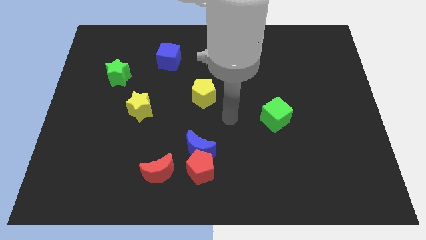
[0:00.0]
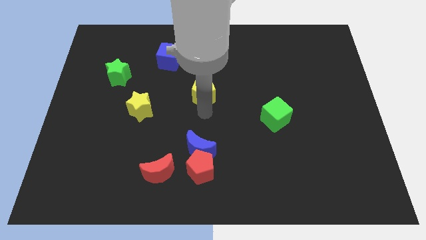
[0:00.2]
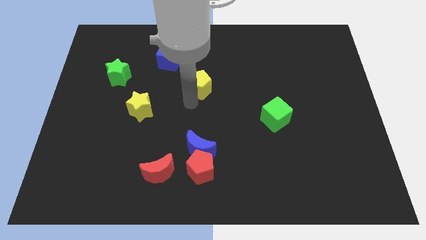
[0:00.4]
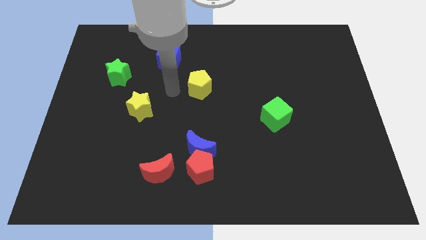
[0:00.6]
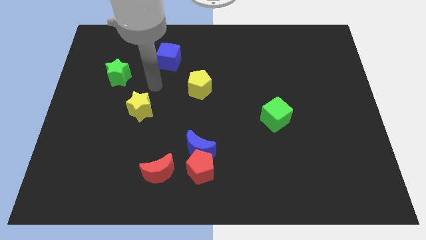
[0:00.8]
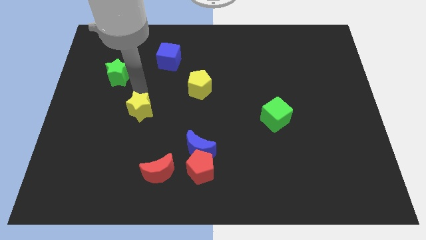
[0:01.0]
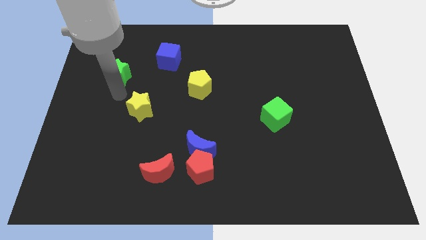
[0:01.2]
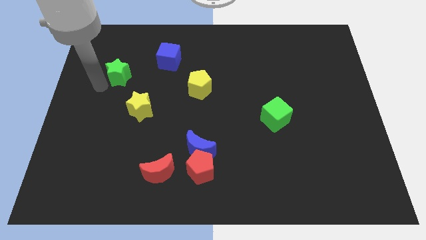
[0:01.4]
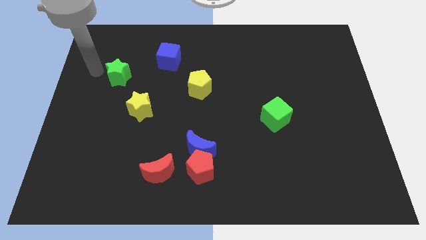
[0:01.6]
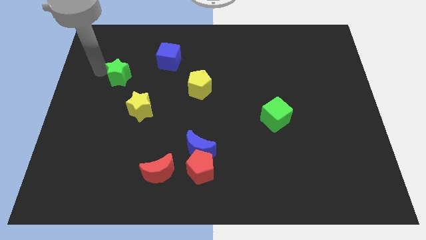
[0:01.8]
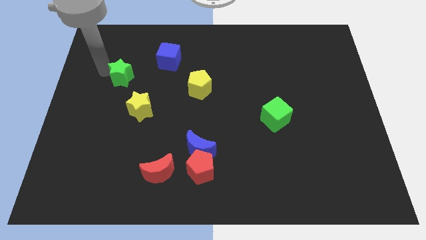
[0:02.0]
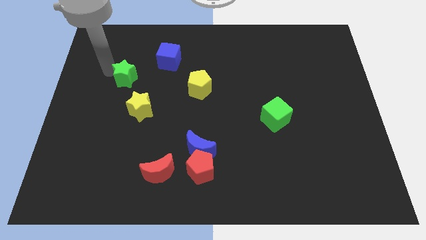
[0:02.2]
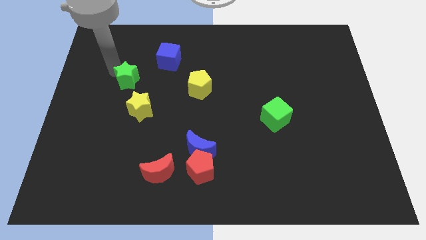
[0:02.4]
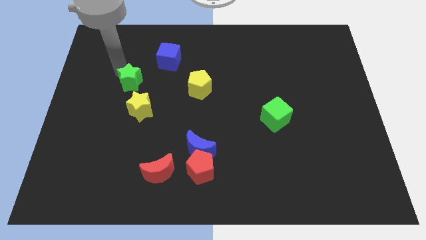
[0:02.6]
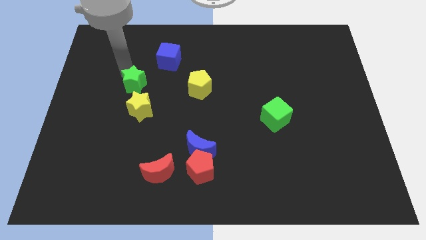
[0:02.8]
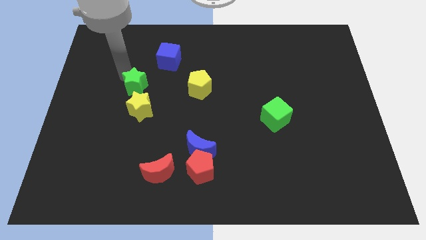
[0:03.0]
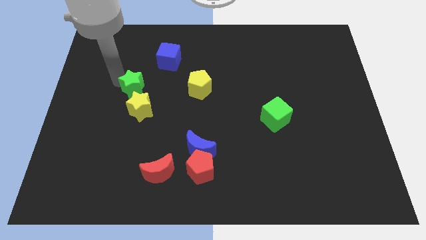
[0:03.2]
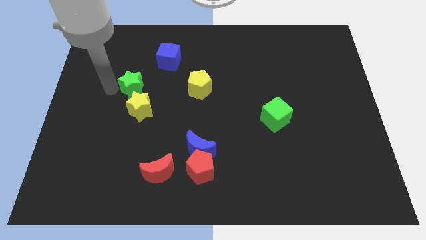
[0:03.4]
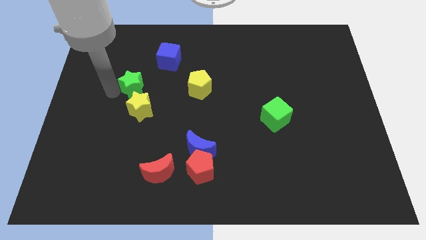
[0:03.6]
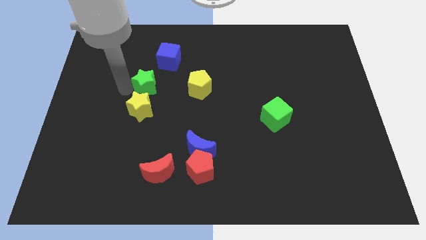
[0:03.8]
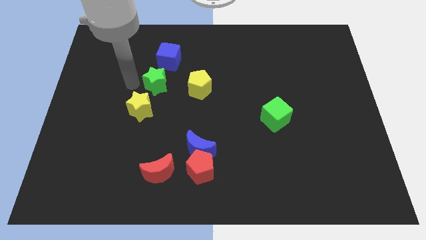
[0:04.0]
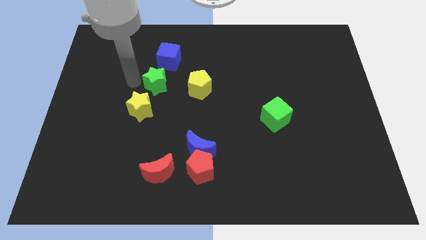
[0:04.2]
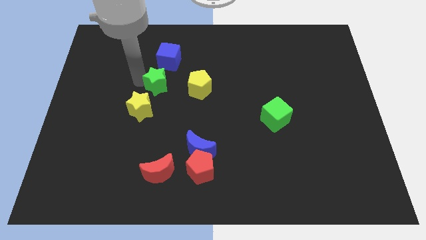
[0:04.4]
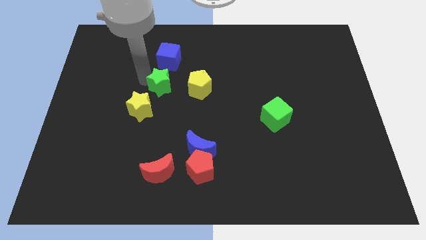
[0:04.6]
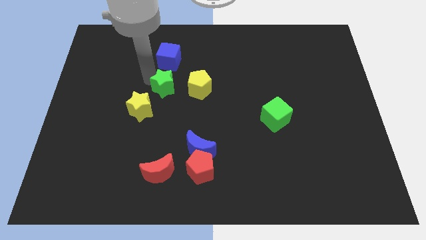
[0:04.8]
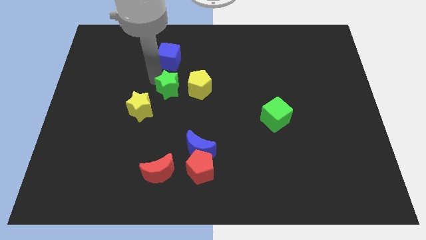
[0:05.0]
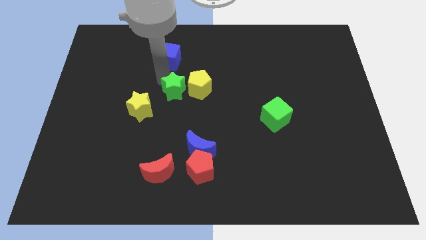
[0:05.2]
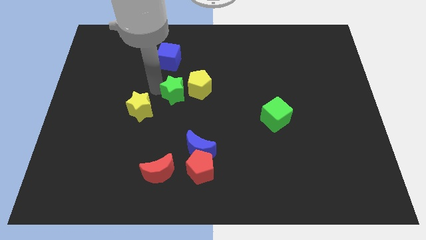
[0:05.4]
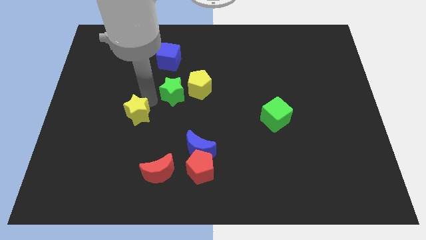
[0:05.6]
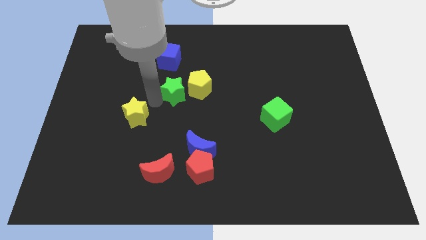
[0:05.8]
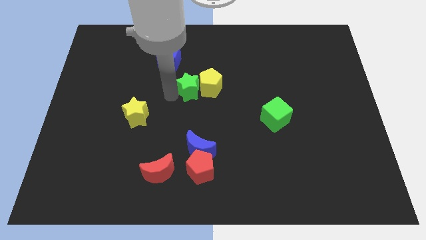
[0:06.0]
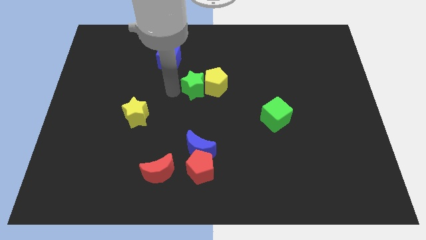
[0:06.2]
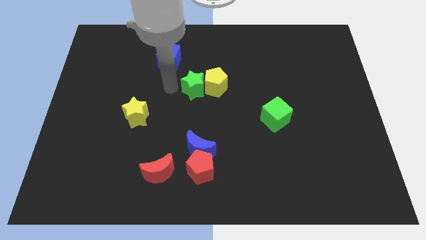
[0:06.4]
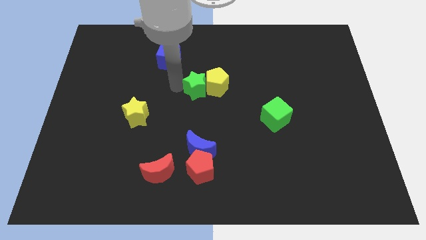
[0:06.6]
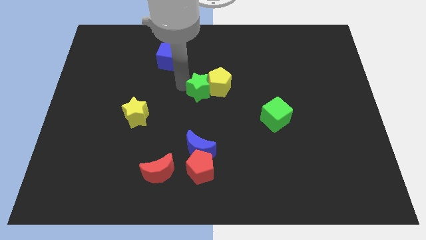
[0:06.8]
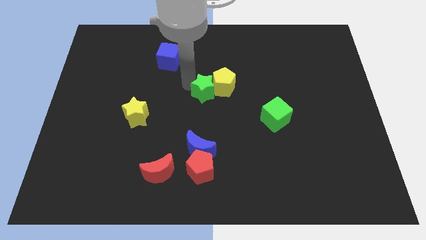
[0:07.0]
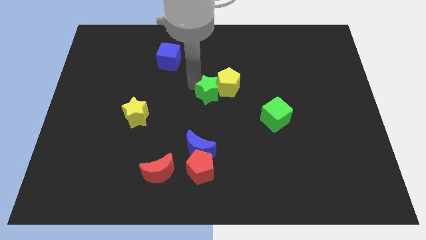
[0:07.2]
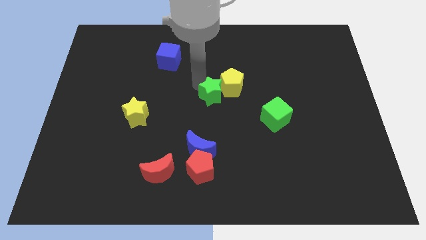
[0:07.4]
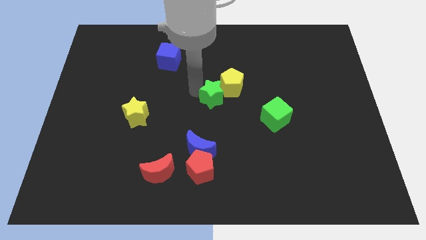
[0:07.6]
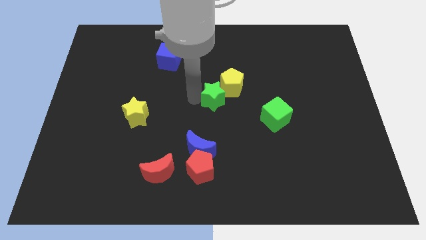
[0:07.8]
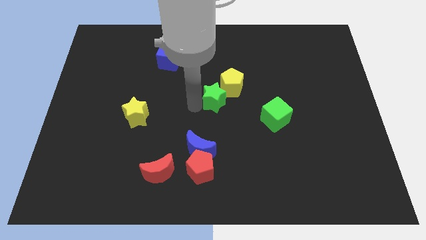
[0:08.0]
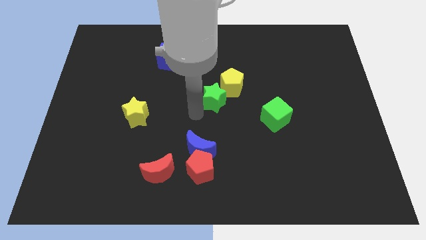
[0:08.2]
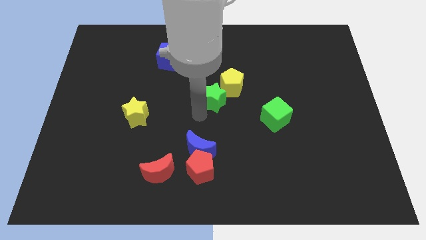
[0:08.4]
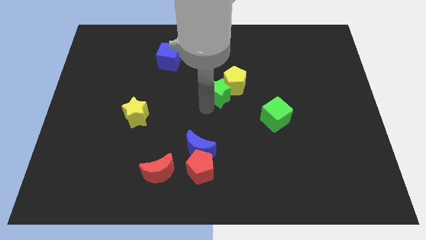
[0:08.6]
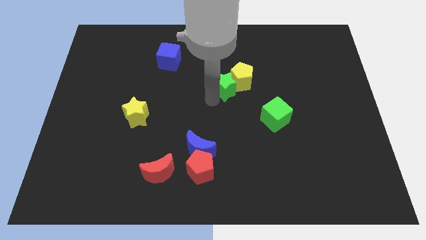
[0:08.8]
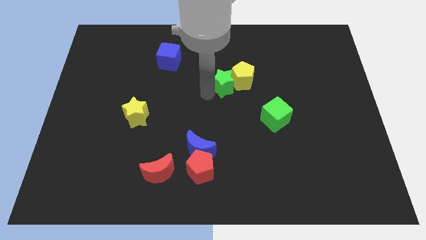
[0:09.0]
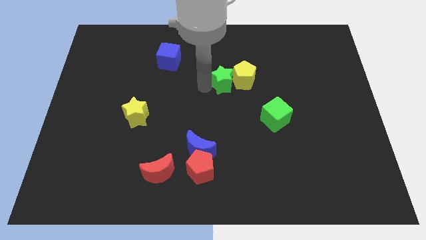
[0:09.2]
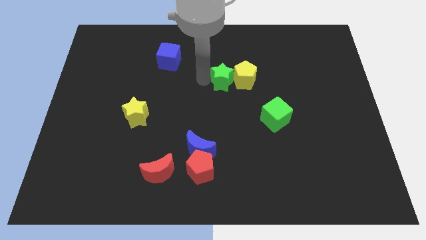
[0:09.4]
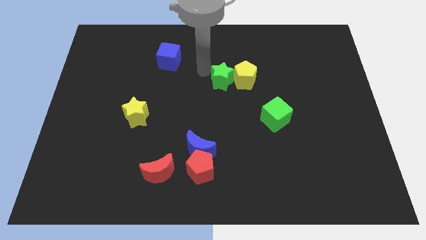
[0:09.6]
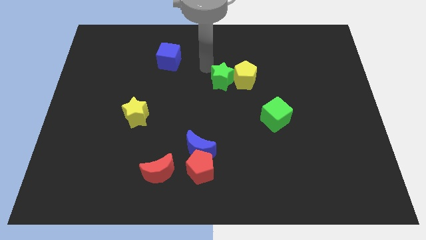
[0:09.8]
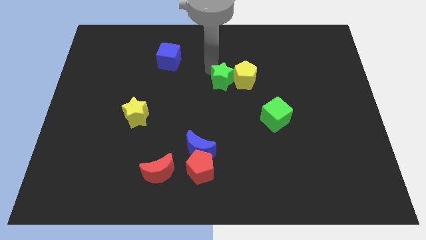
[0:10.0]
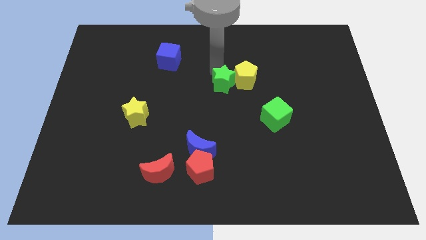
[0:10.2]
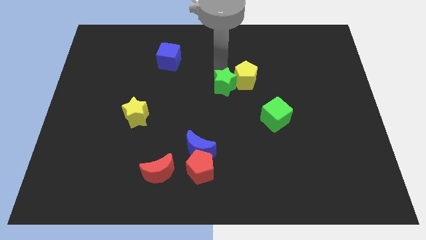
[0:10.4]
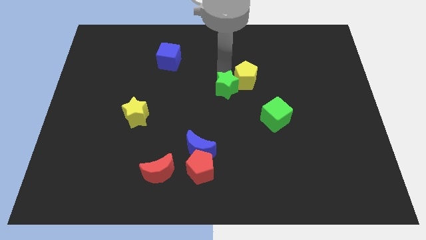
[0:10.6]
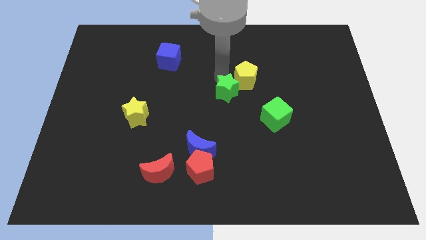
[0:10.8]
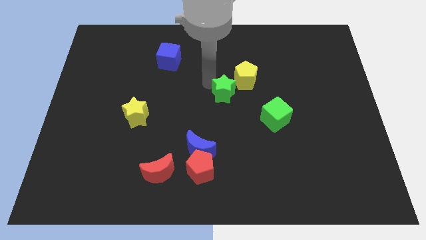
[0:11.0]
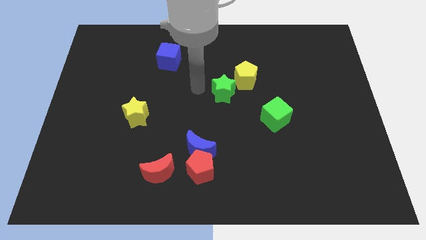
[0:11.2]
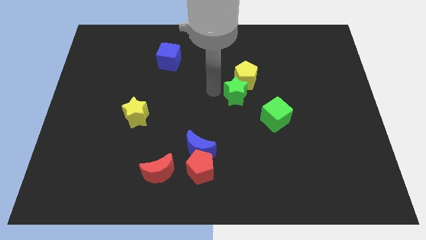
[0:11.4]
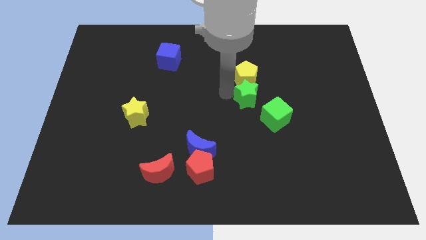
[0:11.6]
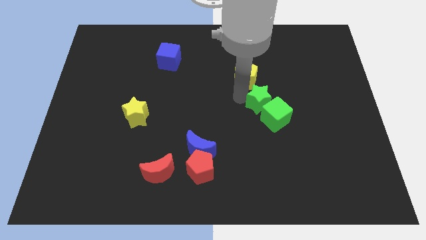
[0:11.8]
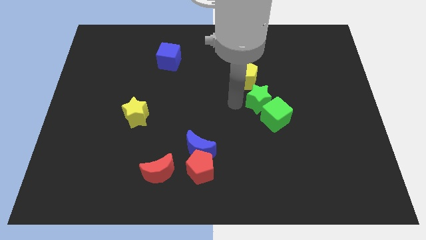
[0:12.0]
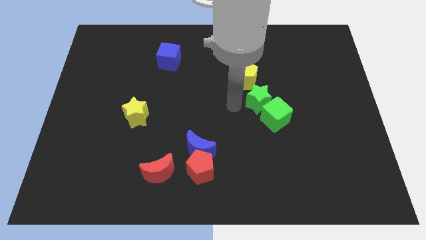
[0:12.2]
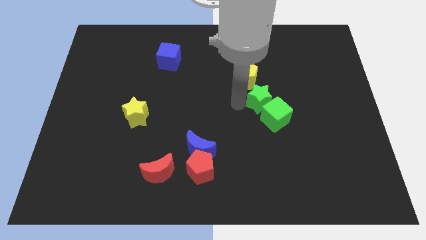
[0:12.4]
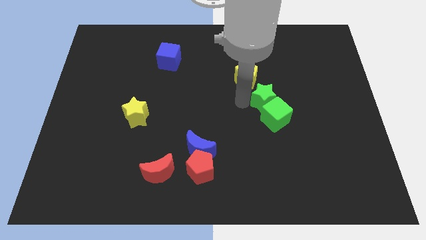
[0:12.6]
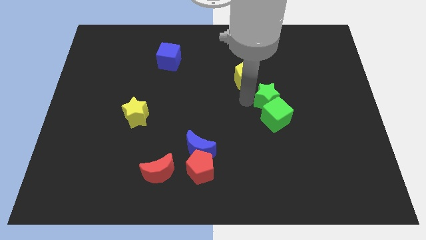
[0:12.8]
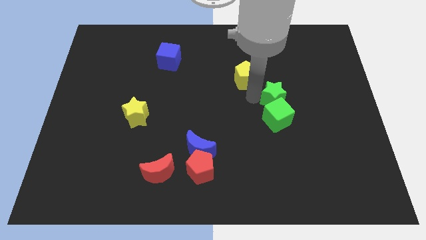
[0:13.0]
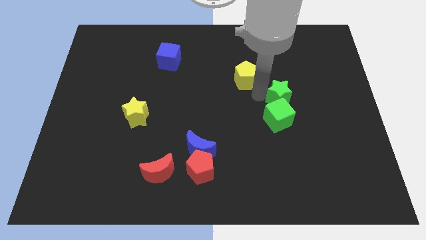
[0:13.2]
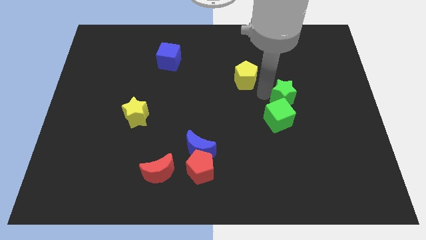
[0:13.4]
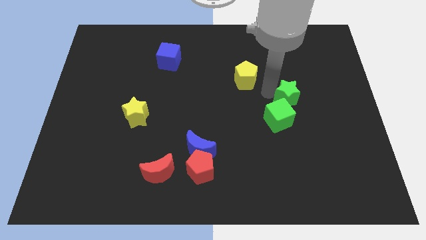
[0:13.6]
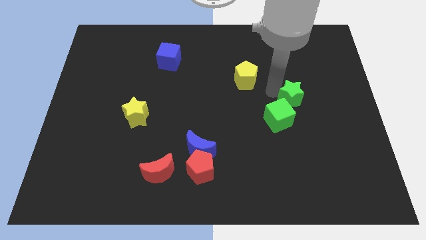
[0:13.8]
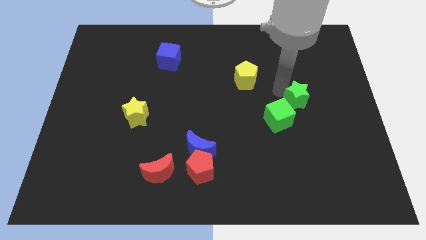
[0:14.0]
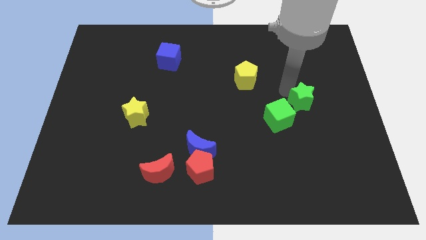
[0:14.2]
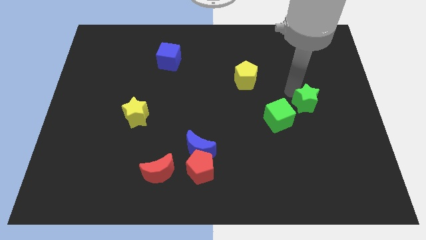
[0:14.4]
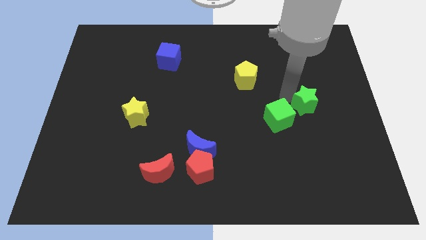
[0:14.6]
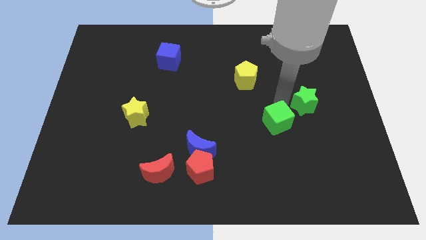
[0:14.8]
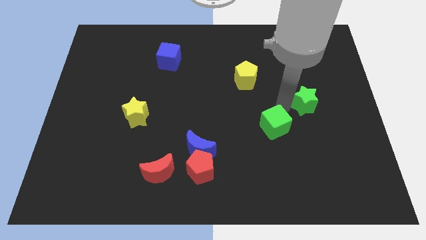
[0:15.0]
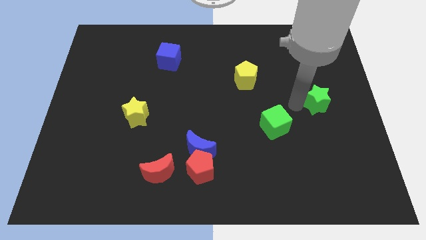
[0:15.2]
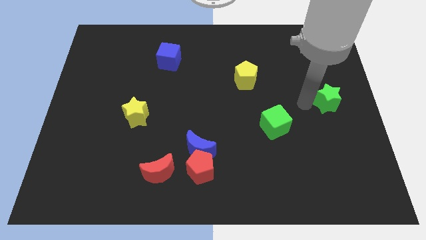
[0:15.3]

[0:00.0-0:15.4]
slide the green star to the right side

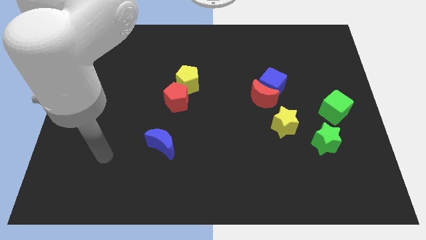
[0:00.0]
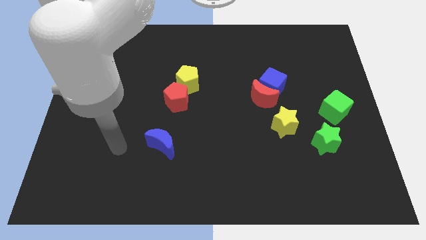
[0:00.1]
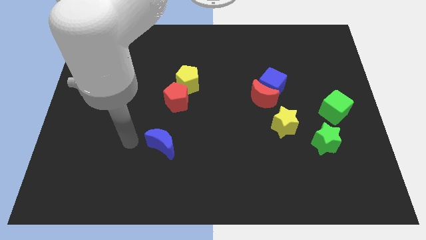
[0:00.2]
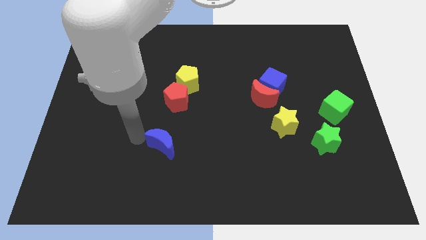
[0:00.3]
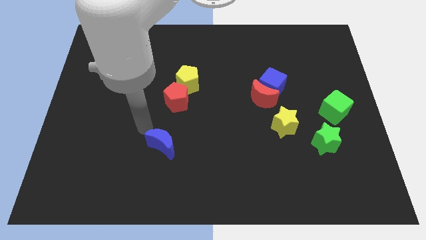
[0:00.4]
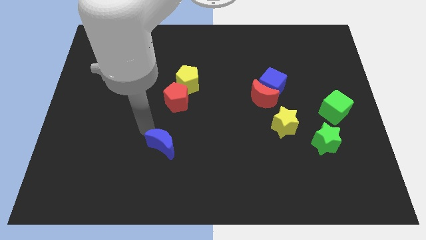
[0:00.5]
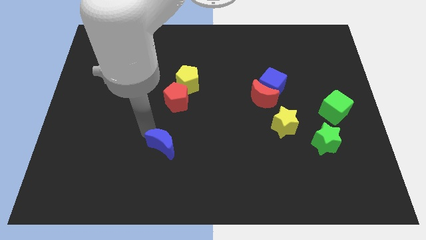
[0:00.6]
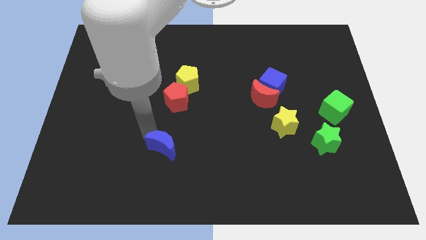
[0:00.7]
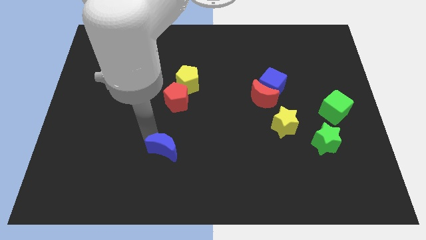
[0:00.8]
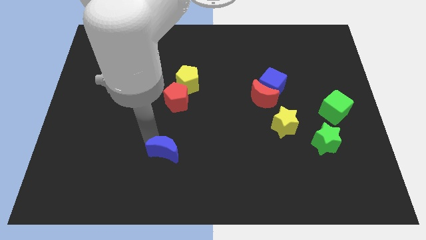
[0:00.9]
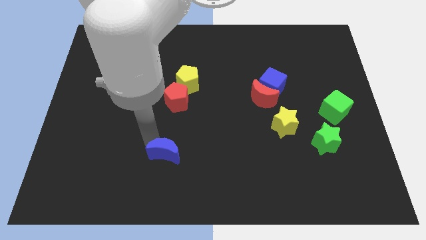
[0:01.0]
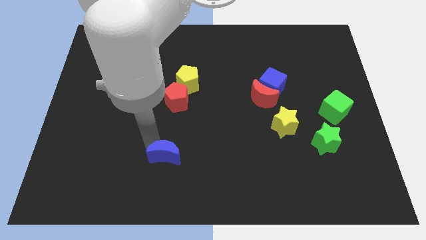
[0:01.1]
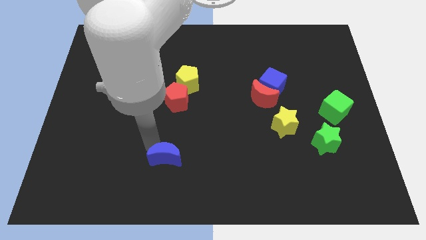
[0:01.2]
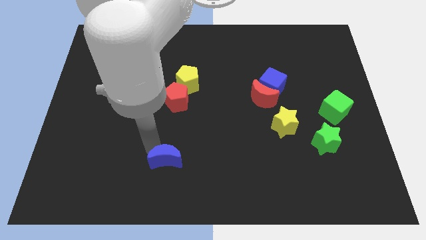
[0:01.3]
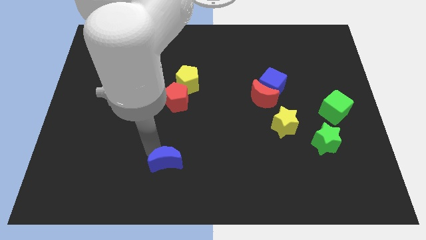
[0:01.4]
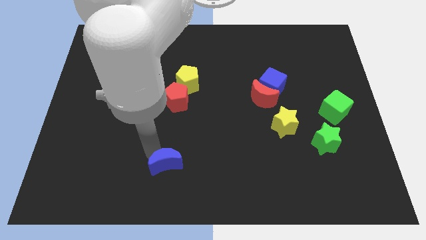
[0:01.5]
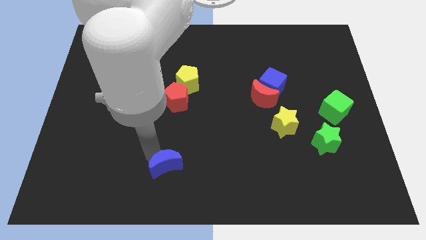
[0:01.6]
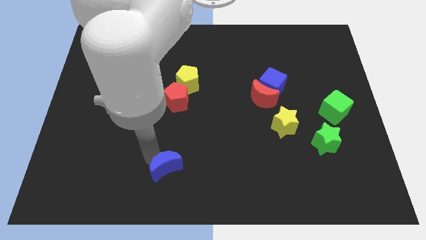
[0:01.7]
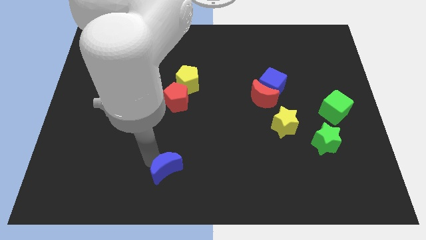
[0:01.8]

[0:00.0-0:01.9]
put the blue moon to the bottom side
